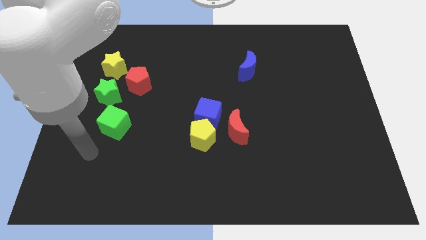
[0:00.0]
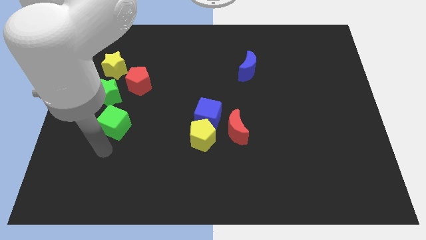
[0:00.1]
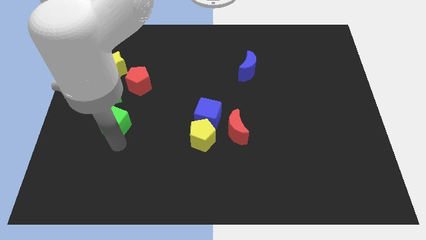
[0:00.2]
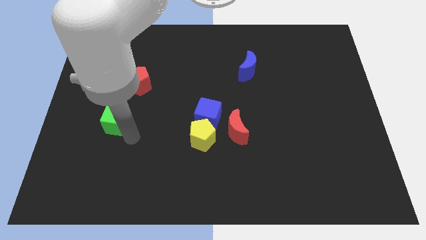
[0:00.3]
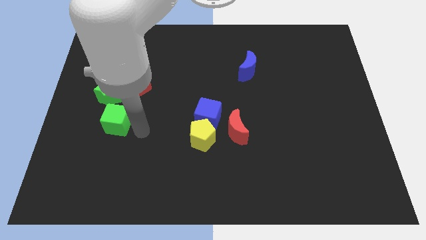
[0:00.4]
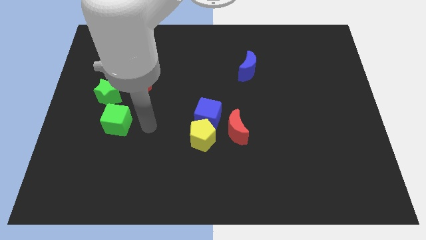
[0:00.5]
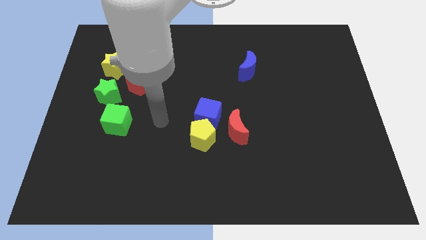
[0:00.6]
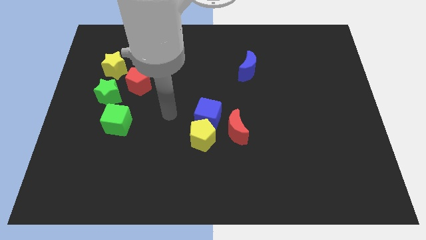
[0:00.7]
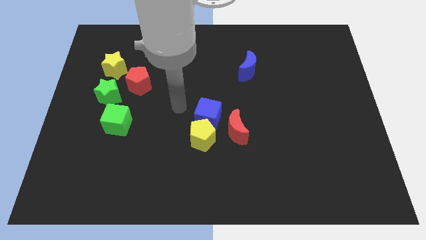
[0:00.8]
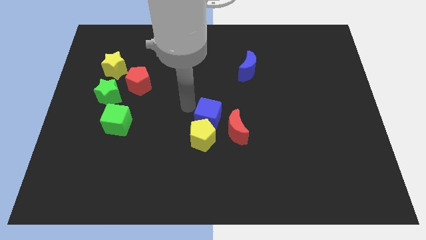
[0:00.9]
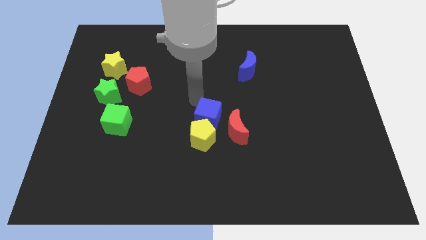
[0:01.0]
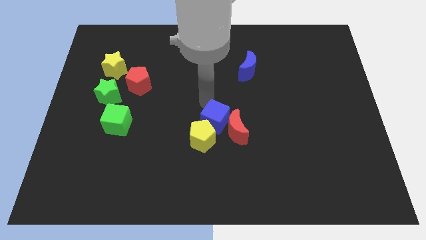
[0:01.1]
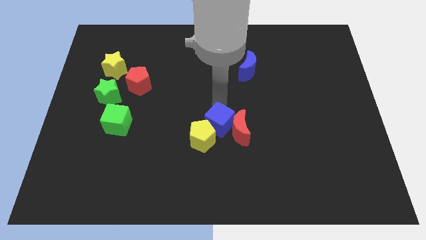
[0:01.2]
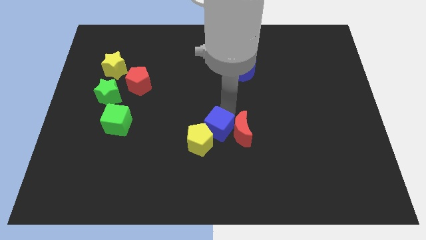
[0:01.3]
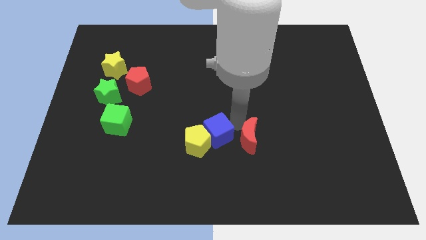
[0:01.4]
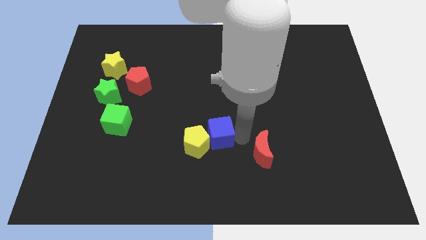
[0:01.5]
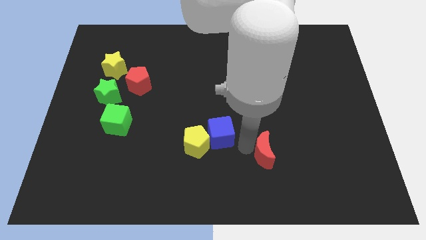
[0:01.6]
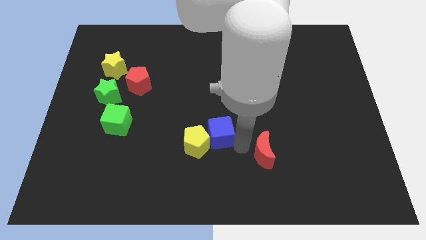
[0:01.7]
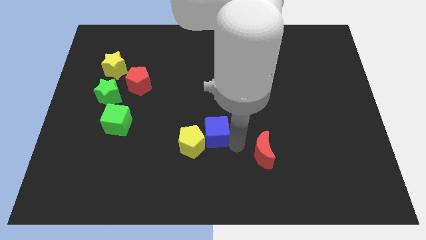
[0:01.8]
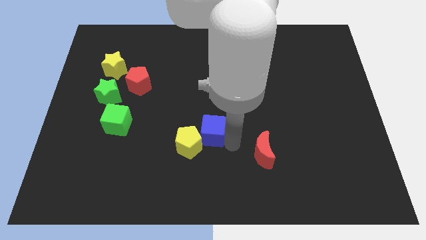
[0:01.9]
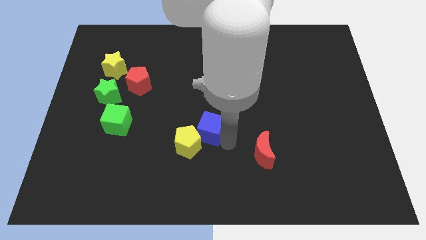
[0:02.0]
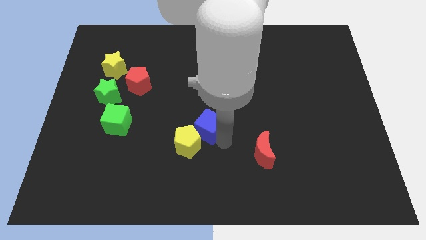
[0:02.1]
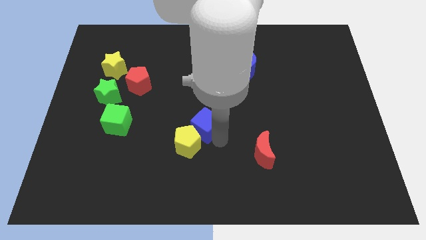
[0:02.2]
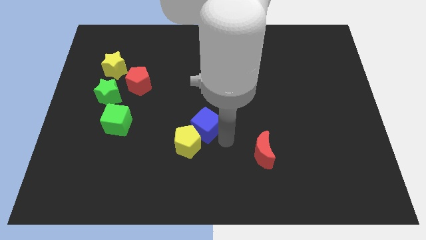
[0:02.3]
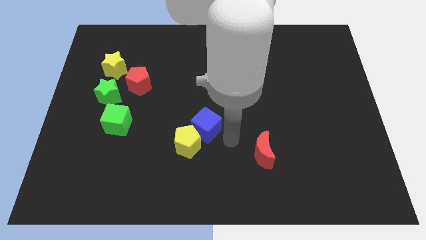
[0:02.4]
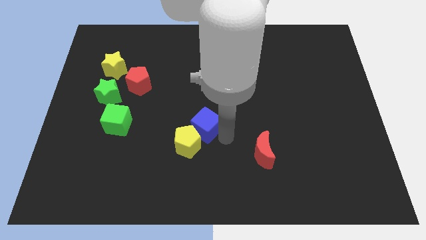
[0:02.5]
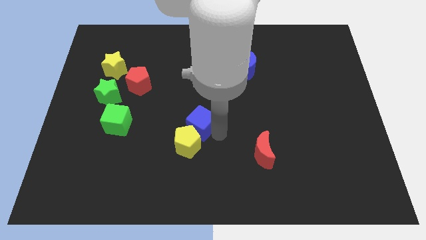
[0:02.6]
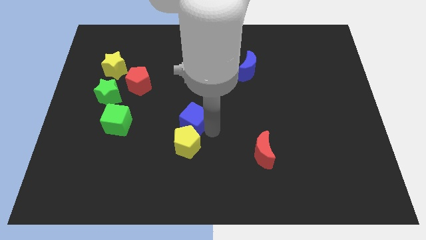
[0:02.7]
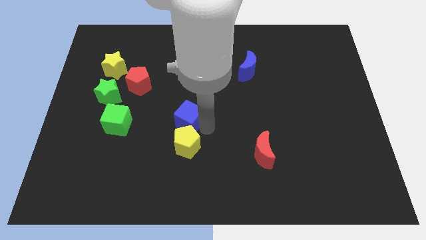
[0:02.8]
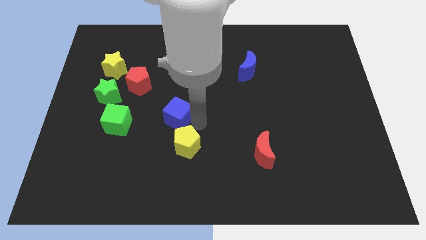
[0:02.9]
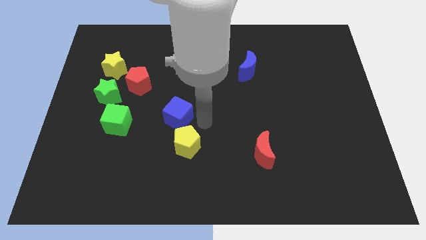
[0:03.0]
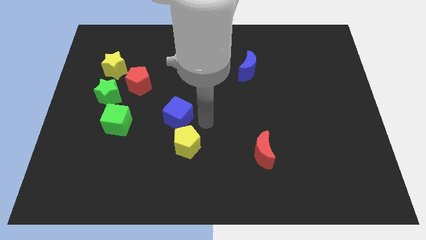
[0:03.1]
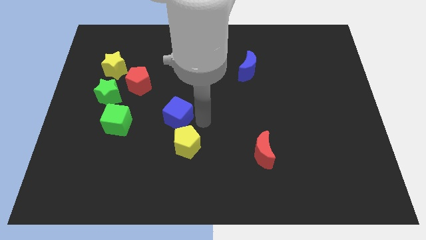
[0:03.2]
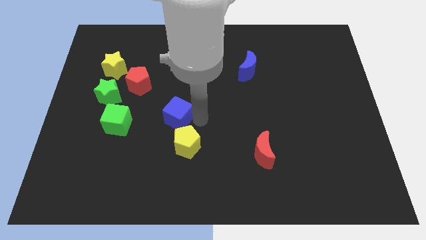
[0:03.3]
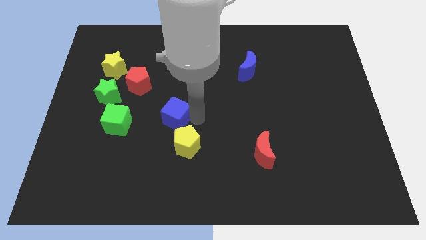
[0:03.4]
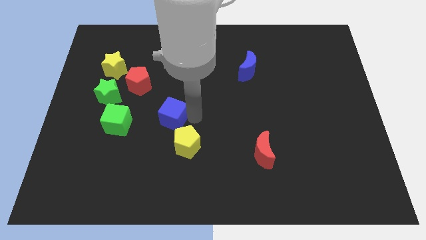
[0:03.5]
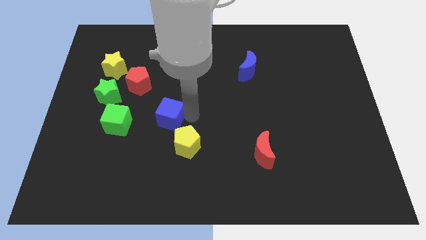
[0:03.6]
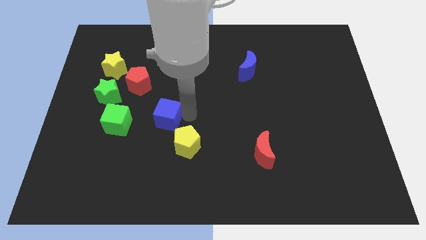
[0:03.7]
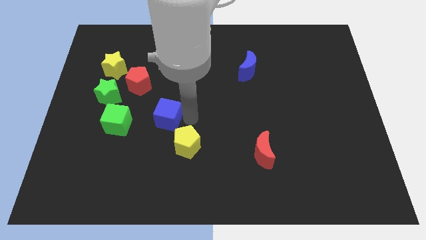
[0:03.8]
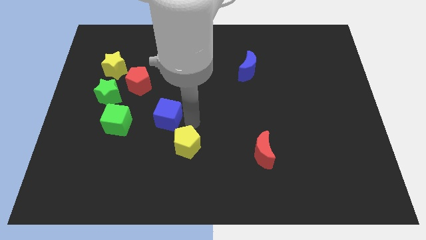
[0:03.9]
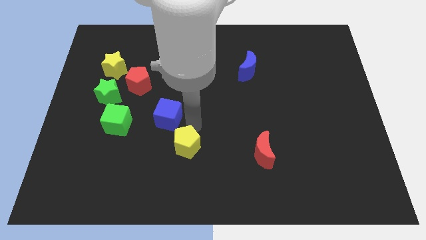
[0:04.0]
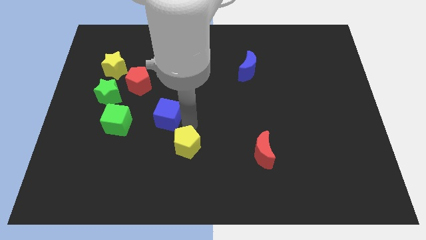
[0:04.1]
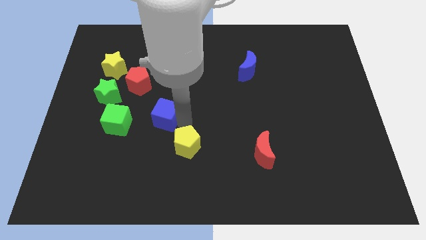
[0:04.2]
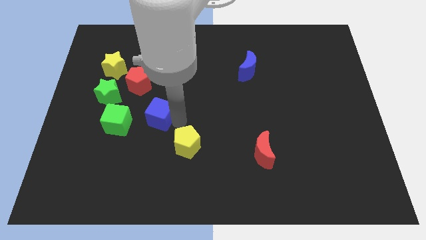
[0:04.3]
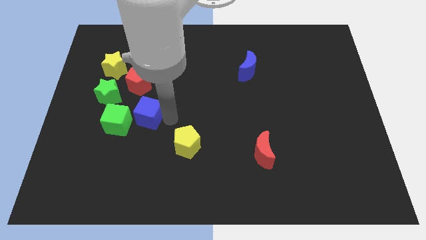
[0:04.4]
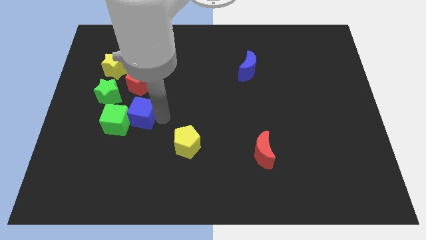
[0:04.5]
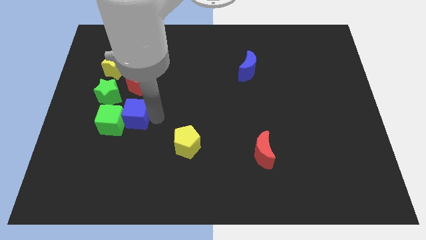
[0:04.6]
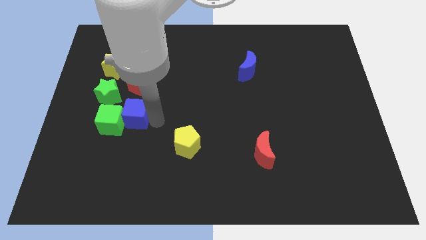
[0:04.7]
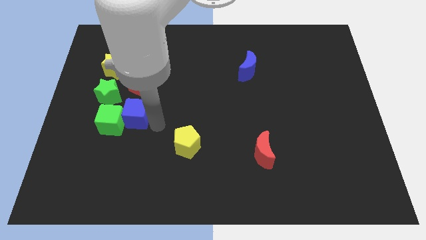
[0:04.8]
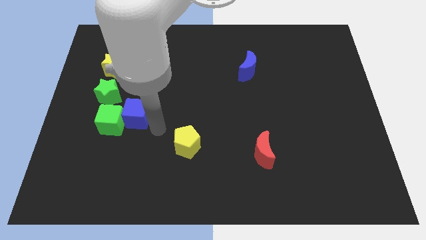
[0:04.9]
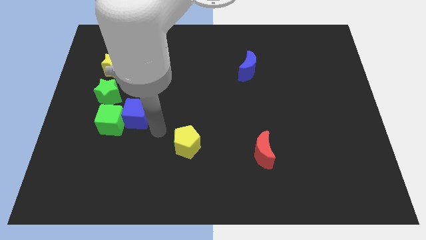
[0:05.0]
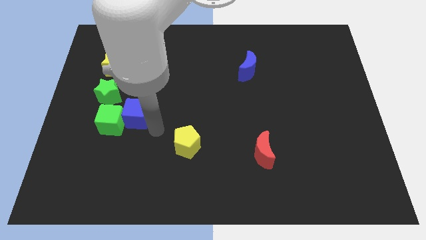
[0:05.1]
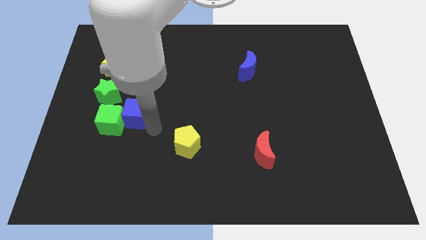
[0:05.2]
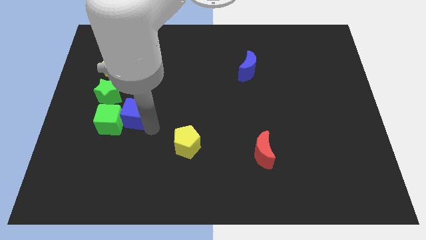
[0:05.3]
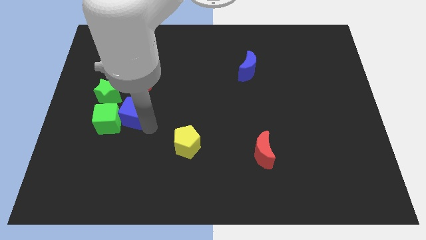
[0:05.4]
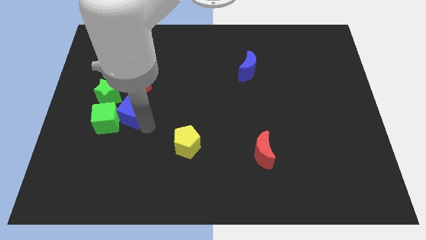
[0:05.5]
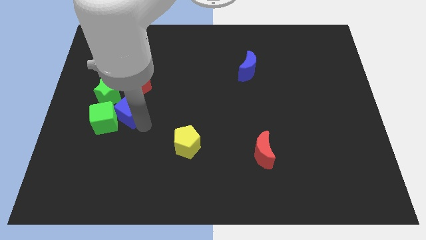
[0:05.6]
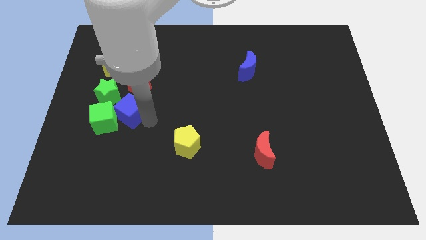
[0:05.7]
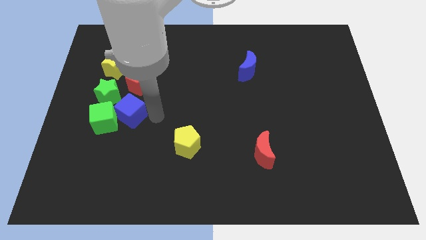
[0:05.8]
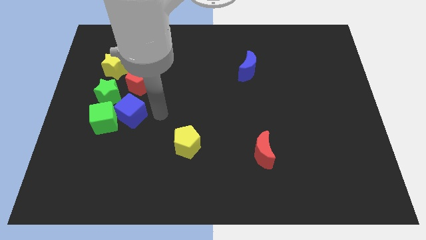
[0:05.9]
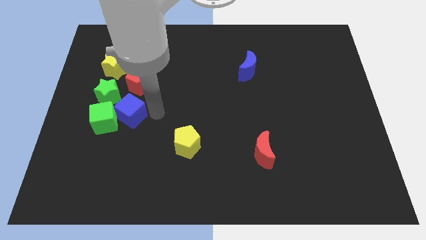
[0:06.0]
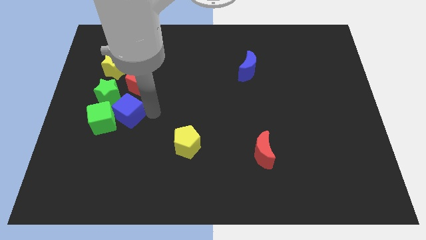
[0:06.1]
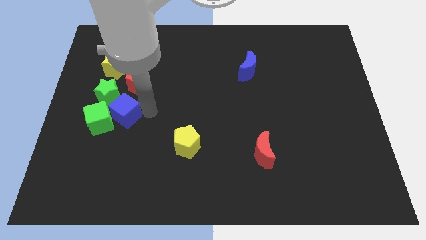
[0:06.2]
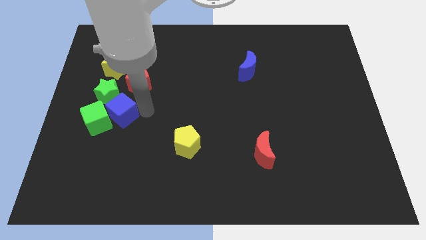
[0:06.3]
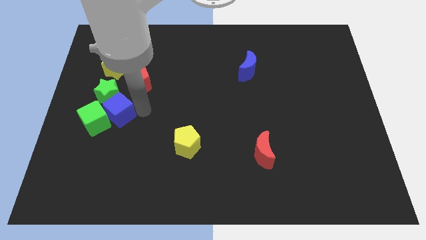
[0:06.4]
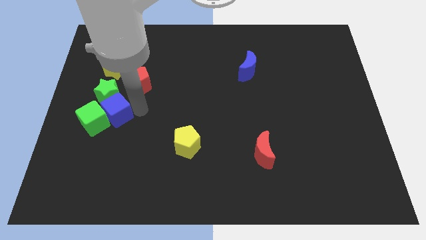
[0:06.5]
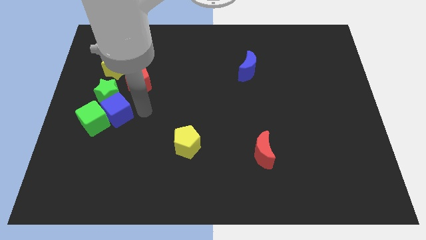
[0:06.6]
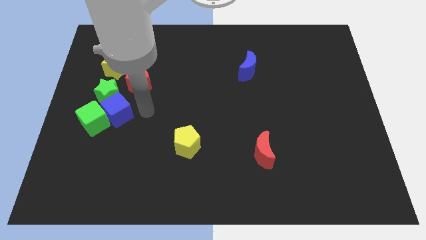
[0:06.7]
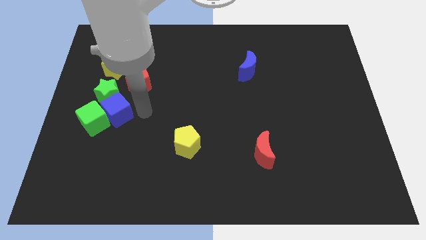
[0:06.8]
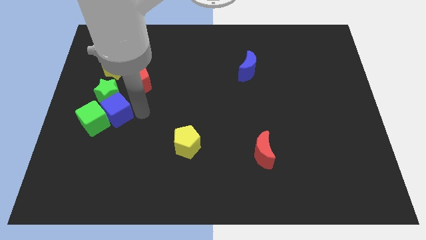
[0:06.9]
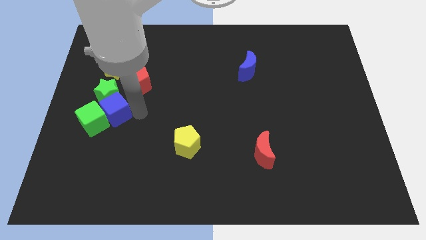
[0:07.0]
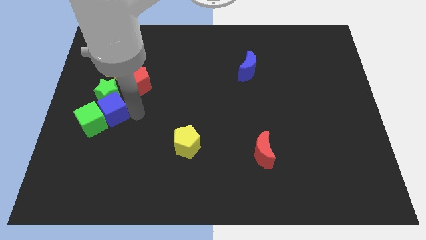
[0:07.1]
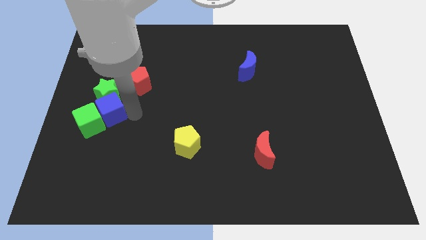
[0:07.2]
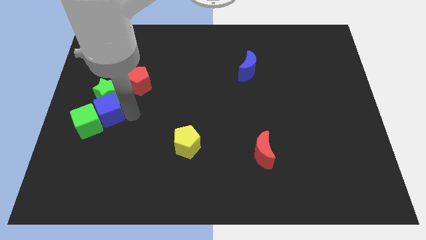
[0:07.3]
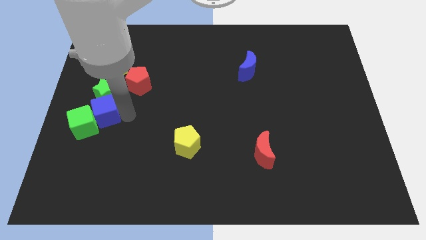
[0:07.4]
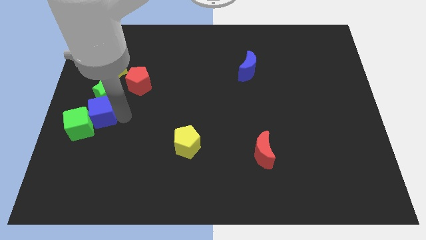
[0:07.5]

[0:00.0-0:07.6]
push the blue cube to the center left

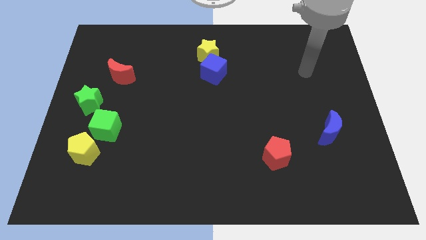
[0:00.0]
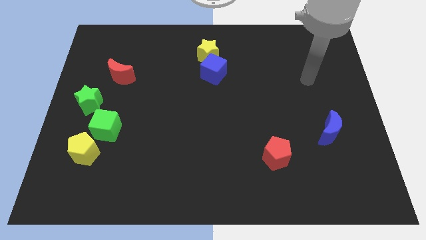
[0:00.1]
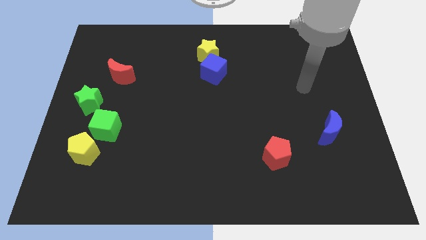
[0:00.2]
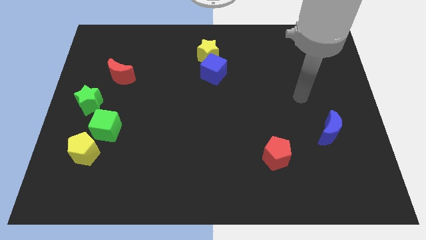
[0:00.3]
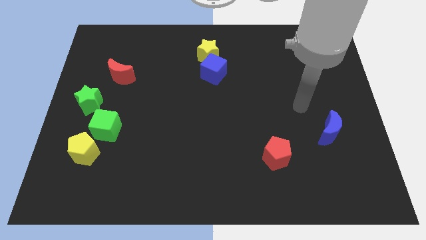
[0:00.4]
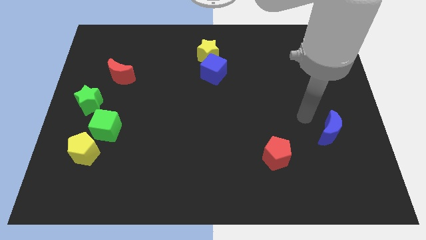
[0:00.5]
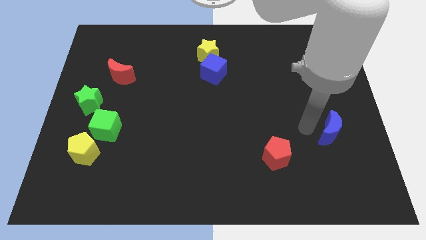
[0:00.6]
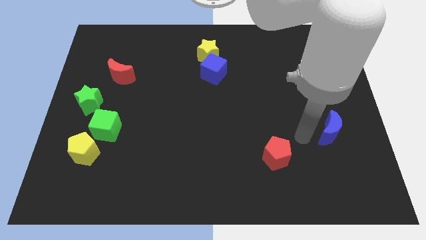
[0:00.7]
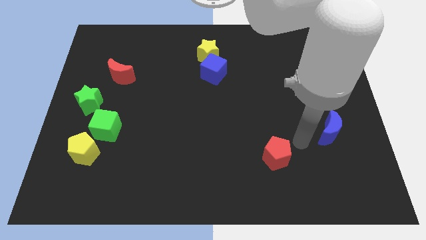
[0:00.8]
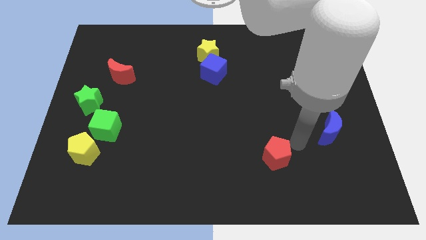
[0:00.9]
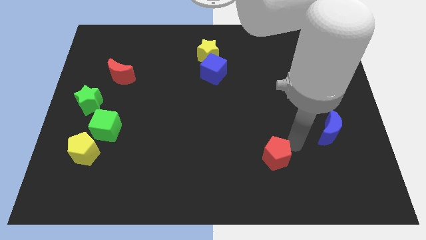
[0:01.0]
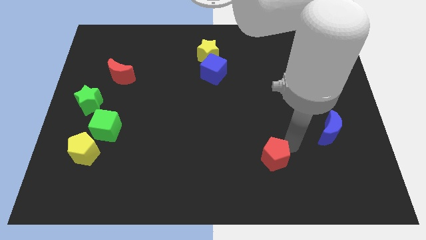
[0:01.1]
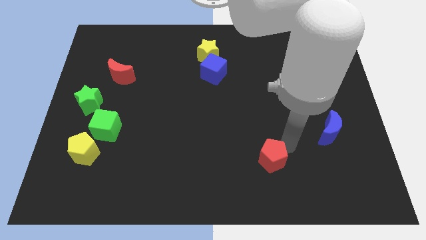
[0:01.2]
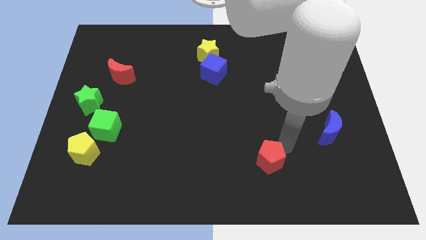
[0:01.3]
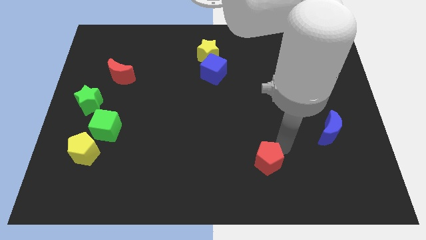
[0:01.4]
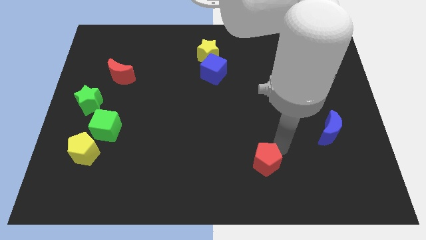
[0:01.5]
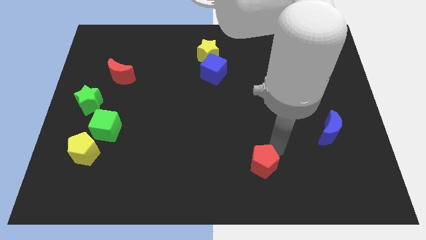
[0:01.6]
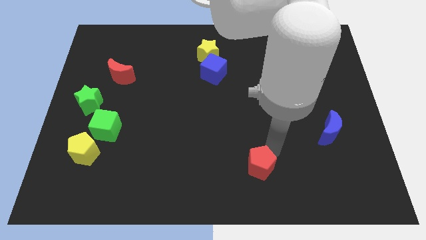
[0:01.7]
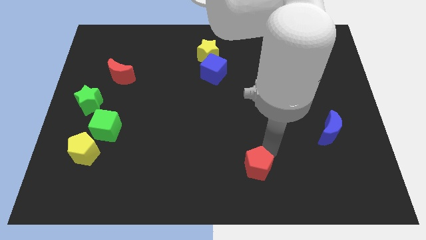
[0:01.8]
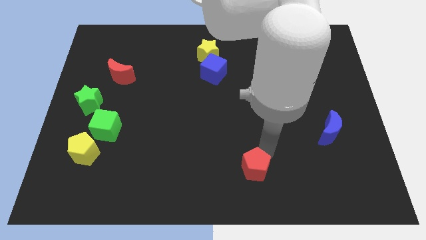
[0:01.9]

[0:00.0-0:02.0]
move the red pentagon to the bottom side
